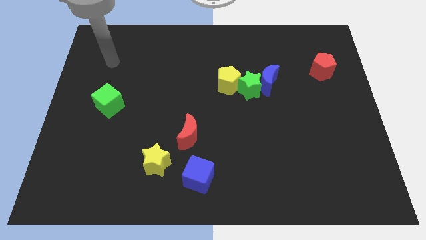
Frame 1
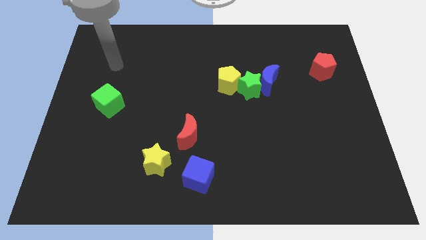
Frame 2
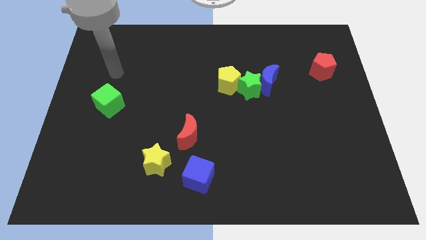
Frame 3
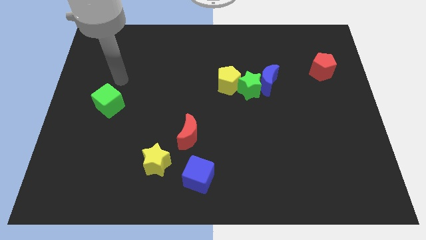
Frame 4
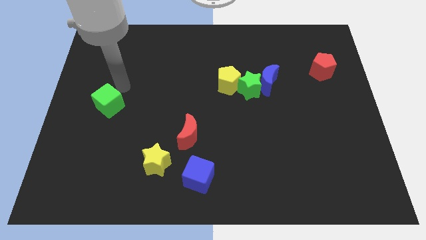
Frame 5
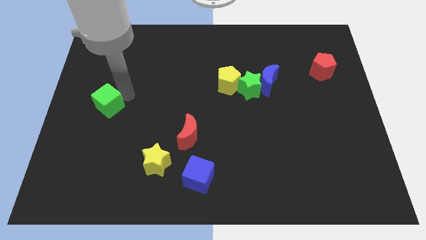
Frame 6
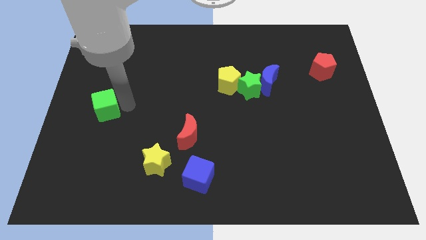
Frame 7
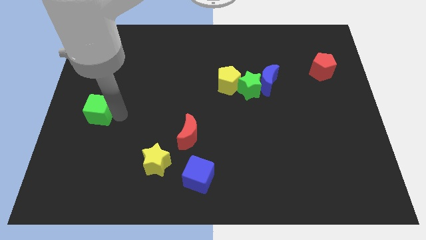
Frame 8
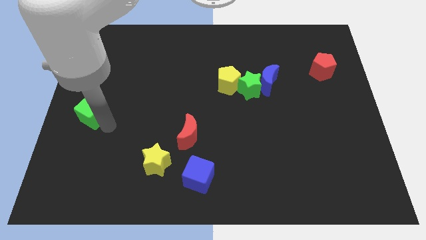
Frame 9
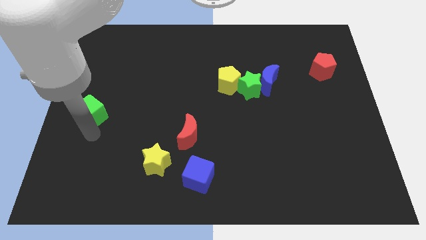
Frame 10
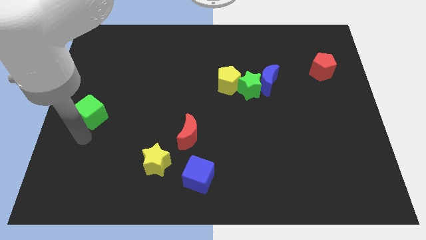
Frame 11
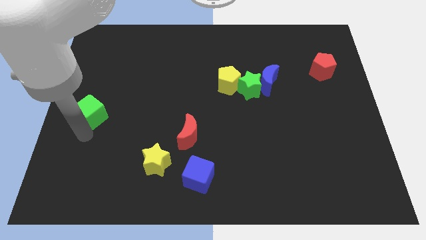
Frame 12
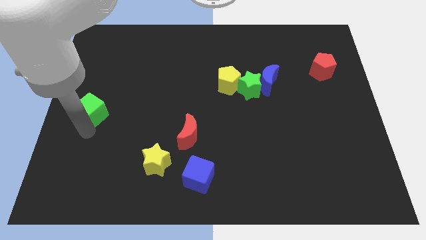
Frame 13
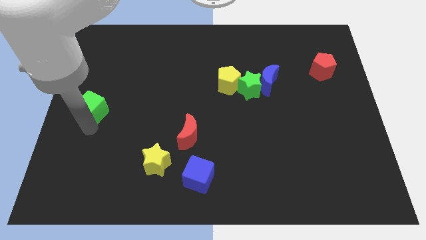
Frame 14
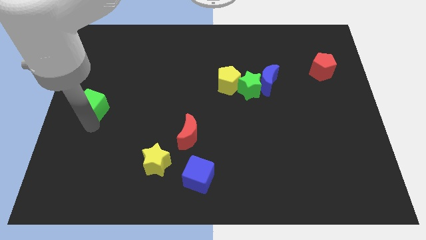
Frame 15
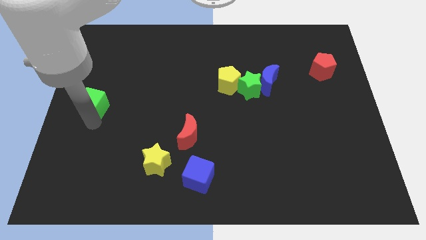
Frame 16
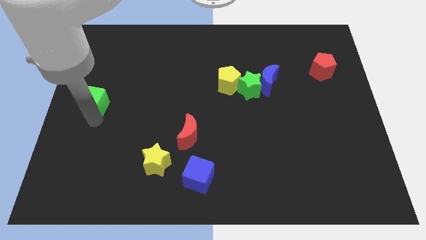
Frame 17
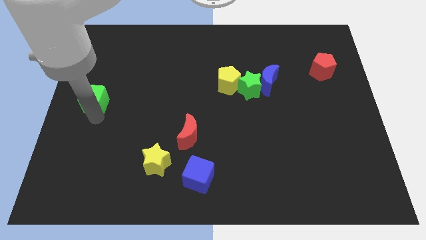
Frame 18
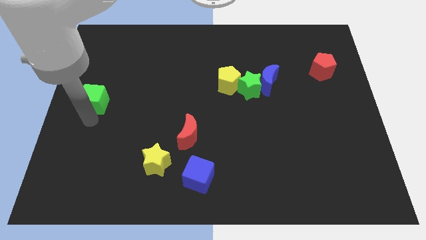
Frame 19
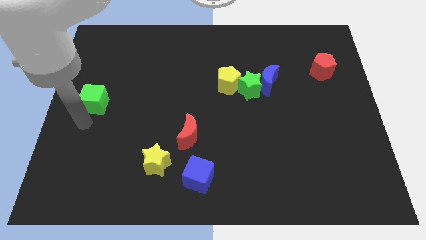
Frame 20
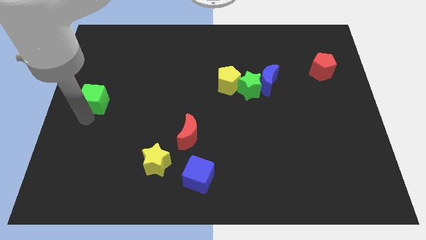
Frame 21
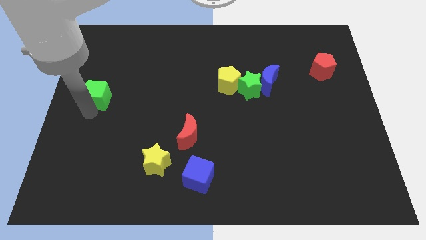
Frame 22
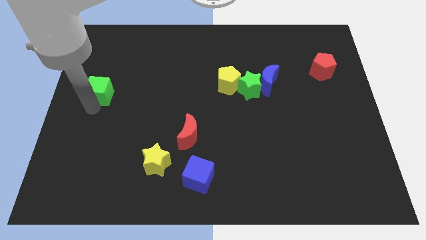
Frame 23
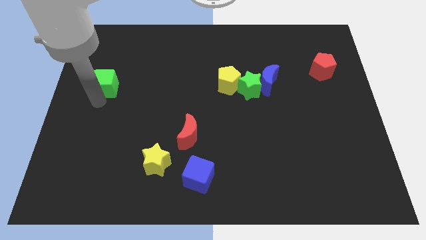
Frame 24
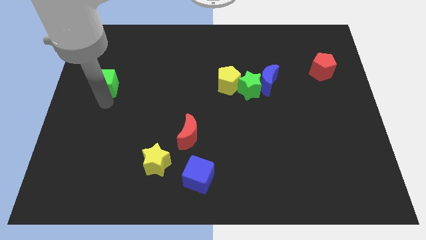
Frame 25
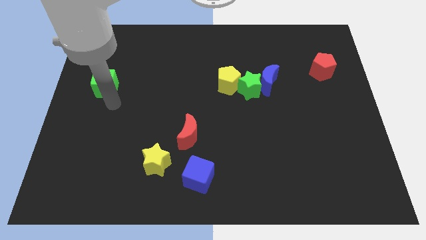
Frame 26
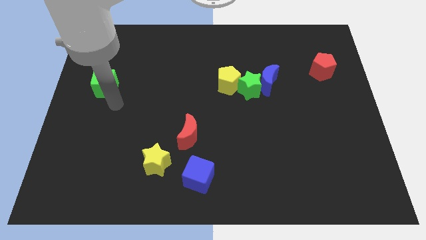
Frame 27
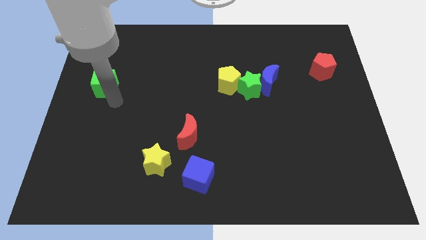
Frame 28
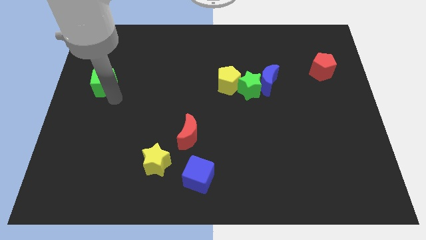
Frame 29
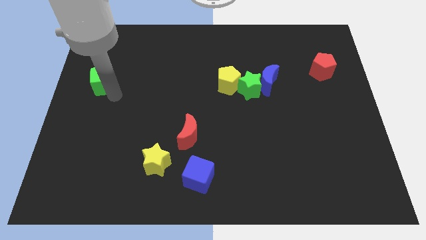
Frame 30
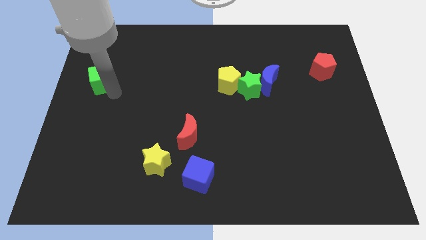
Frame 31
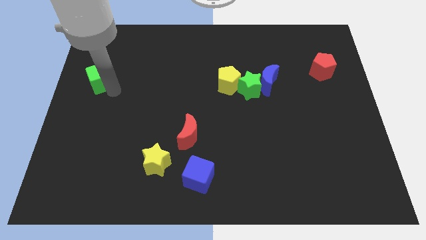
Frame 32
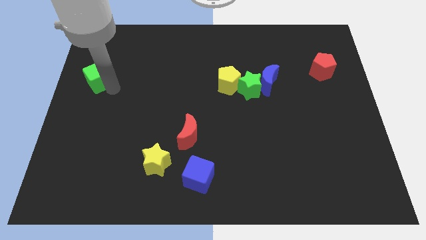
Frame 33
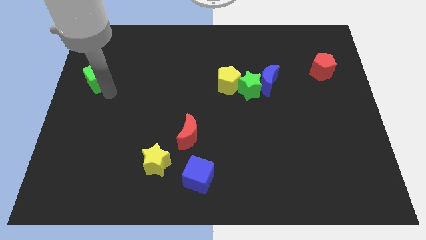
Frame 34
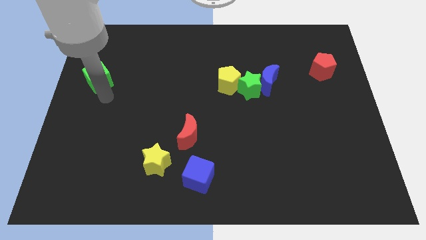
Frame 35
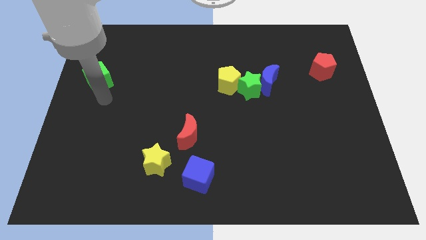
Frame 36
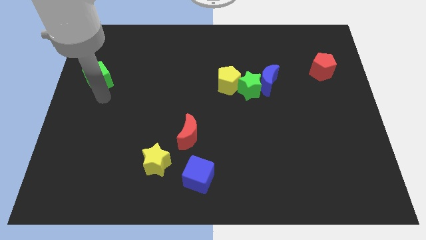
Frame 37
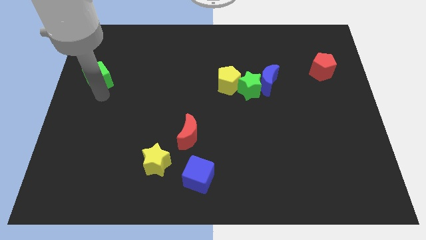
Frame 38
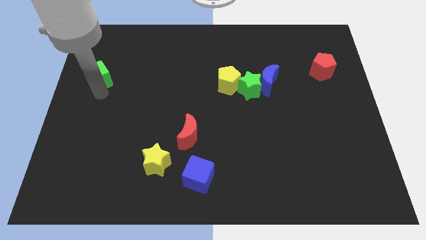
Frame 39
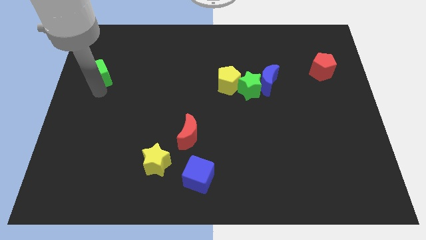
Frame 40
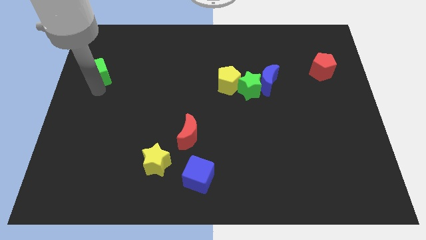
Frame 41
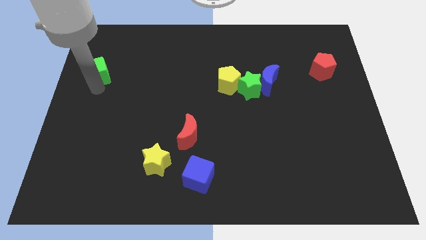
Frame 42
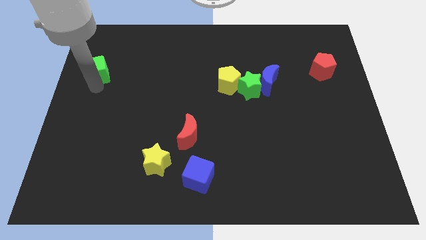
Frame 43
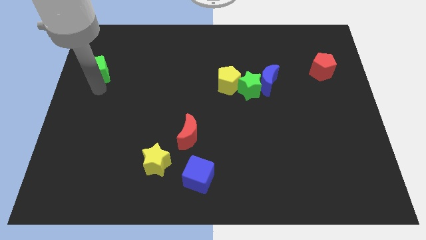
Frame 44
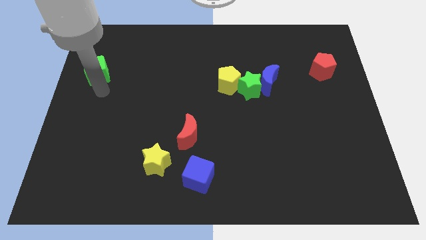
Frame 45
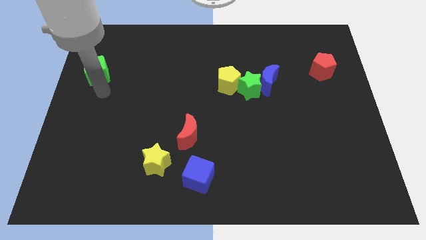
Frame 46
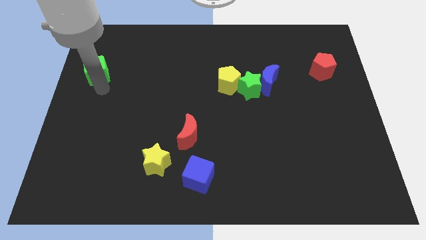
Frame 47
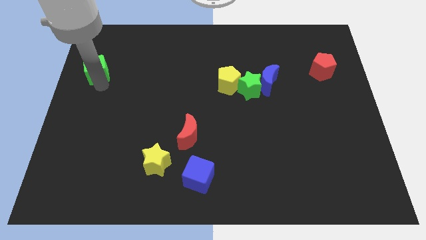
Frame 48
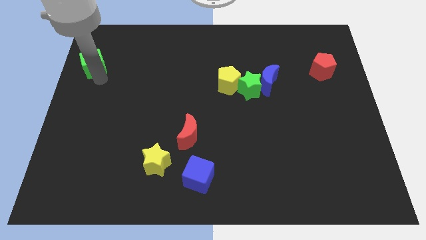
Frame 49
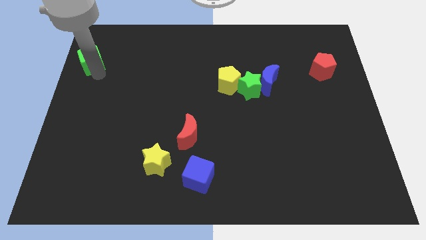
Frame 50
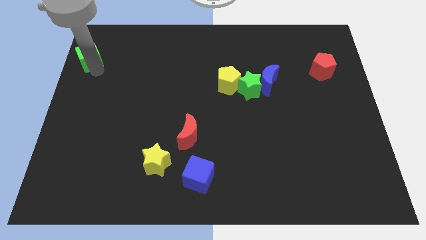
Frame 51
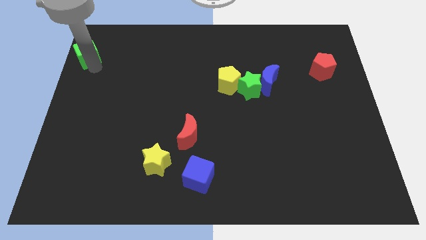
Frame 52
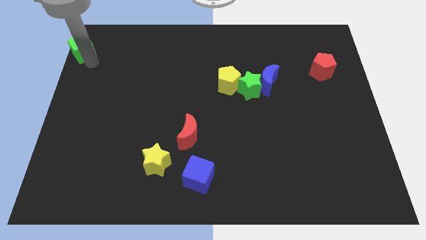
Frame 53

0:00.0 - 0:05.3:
push the green cube to the top left corner

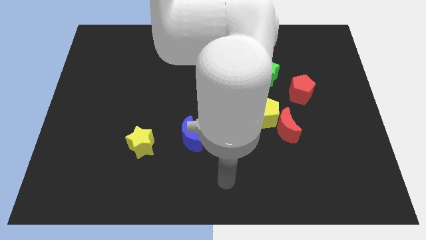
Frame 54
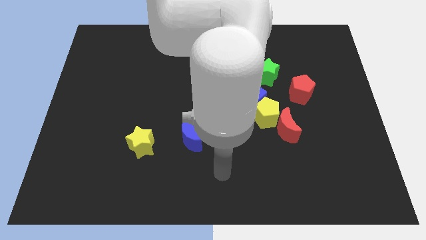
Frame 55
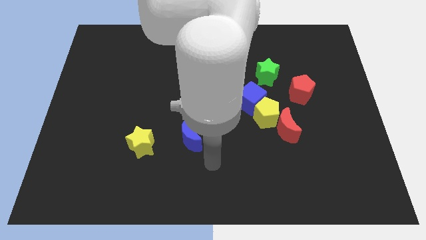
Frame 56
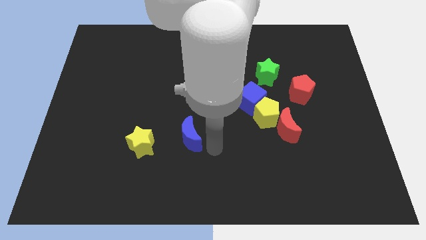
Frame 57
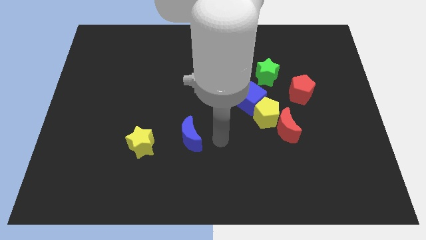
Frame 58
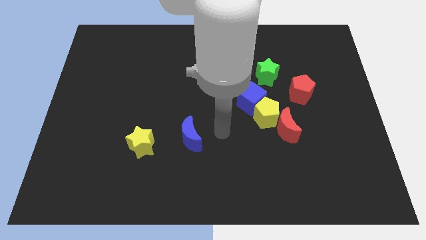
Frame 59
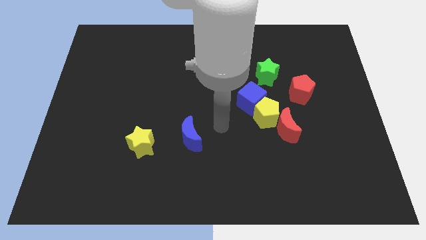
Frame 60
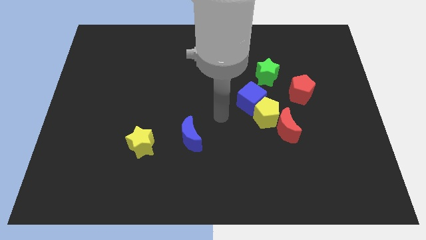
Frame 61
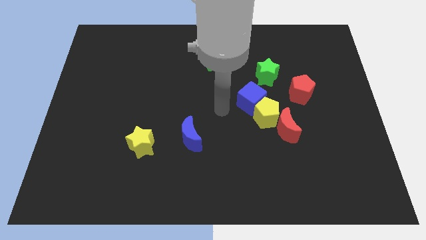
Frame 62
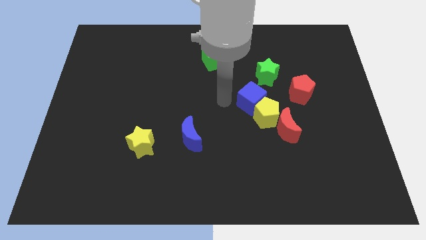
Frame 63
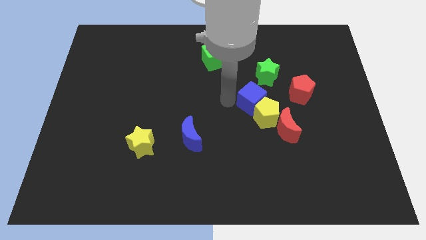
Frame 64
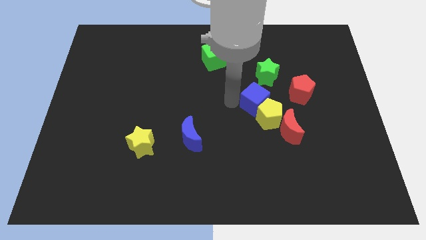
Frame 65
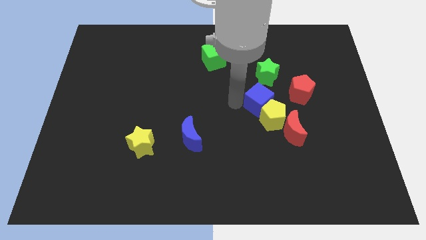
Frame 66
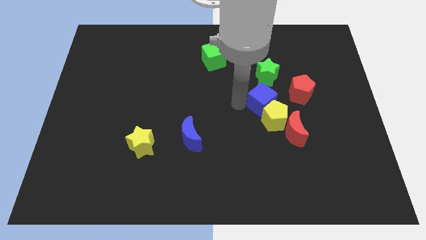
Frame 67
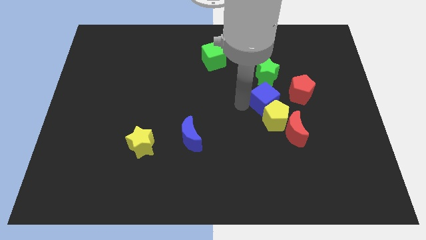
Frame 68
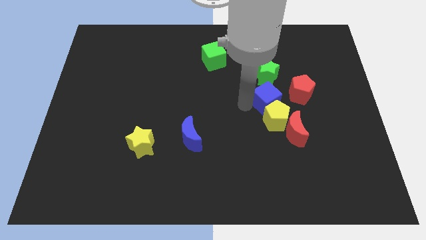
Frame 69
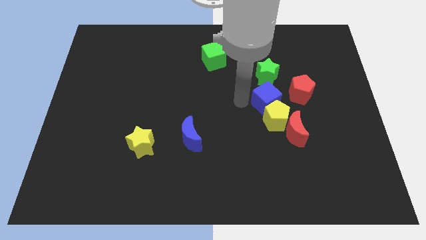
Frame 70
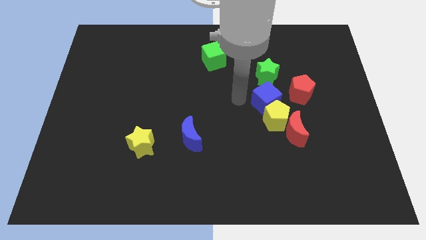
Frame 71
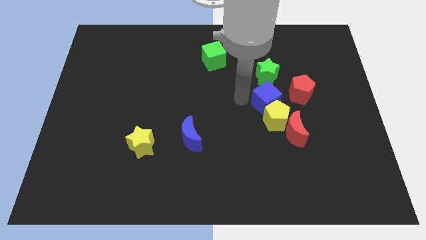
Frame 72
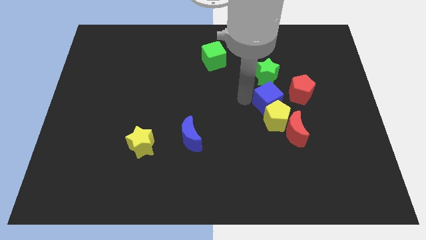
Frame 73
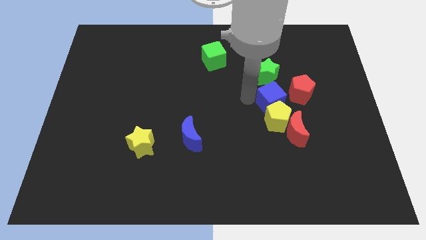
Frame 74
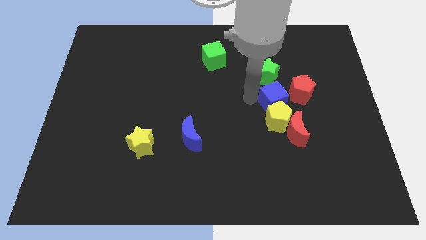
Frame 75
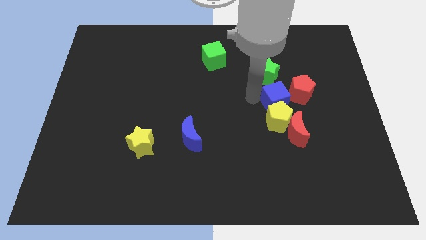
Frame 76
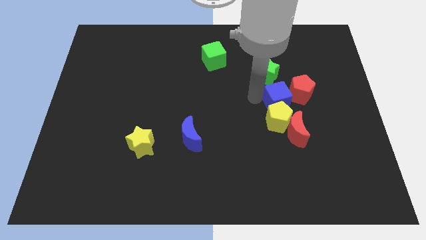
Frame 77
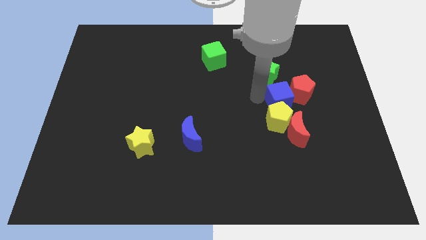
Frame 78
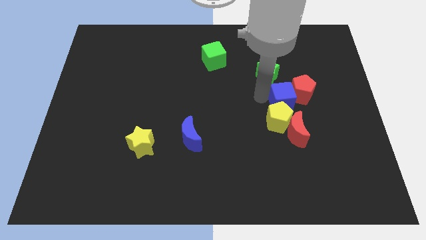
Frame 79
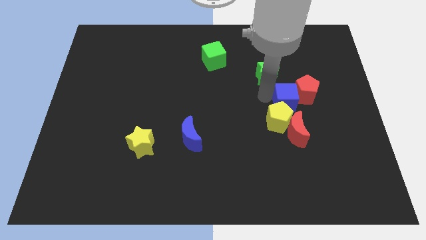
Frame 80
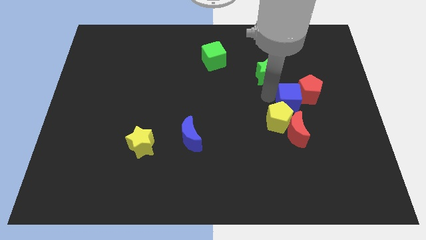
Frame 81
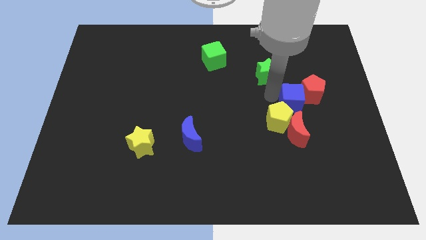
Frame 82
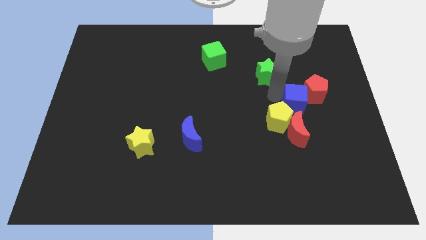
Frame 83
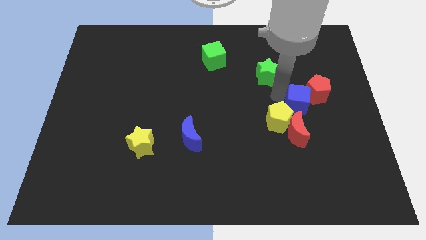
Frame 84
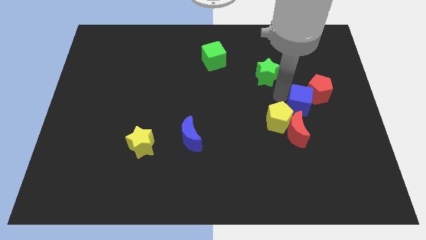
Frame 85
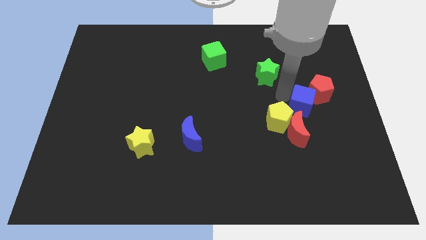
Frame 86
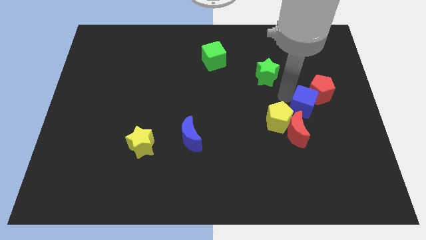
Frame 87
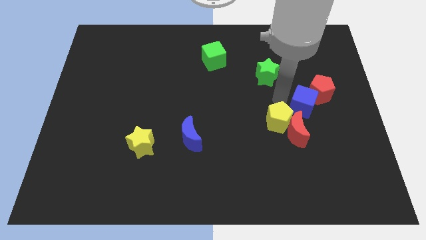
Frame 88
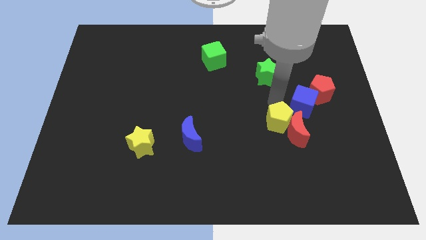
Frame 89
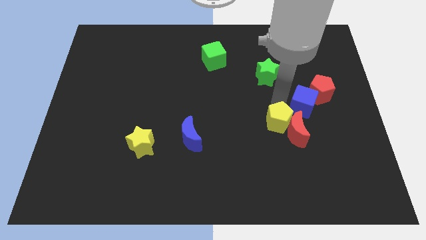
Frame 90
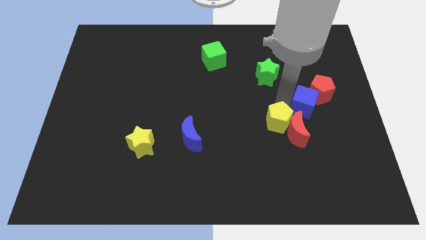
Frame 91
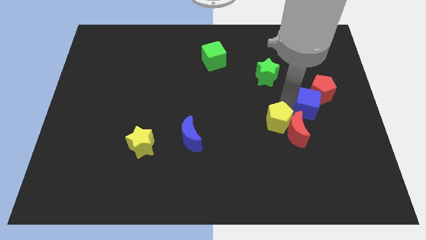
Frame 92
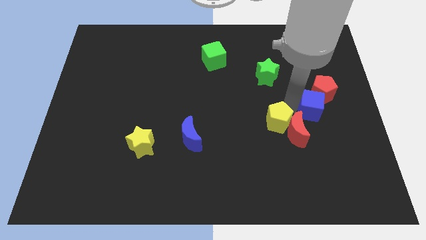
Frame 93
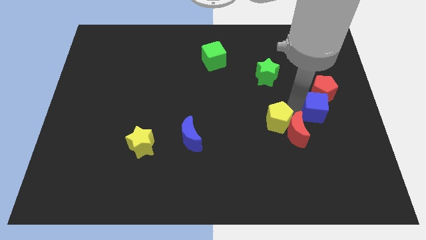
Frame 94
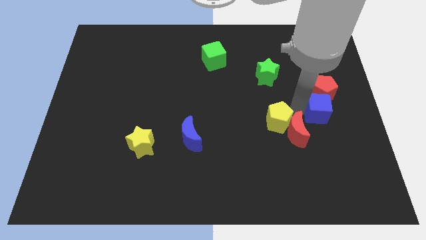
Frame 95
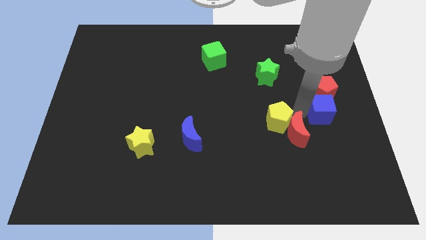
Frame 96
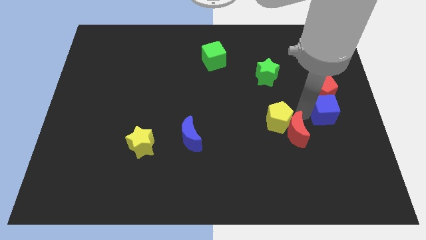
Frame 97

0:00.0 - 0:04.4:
slide the blue cube to the right side
